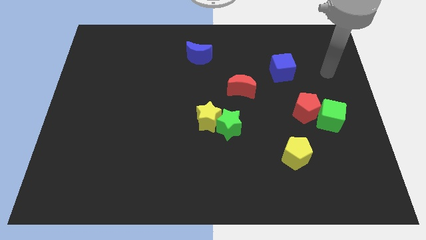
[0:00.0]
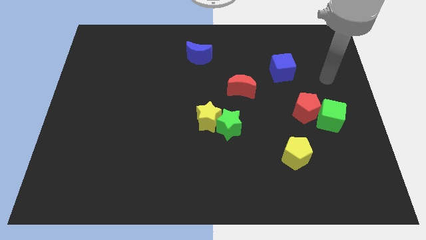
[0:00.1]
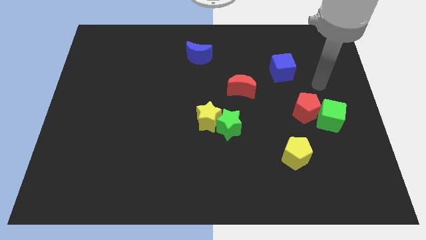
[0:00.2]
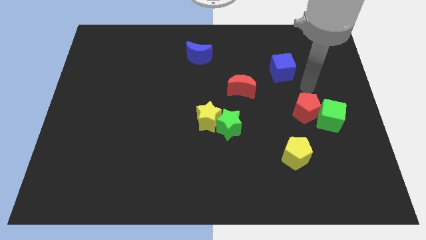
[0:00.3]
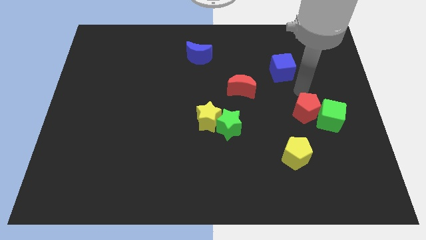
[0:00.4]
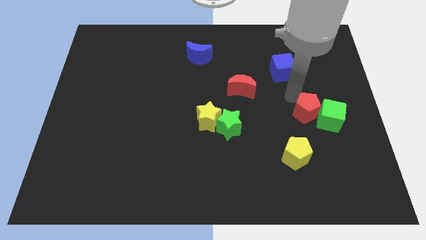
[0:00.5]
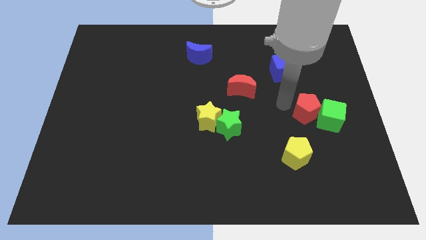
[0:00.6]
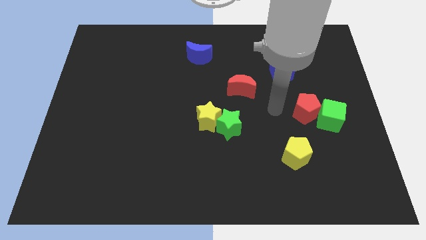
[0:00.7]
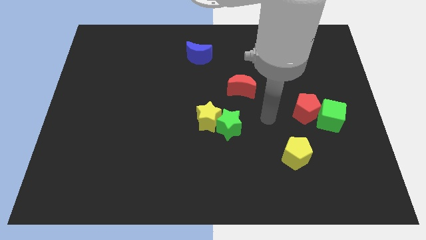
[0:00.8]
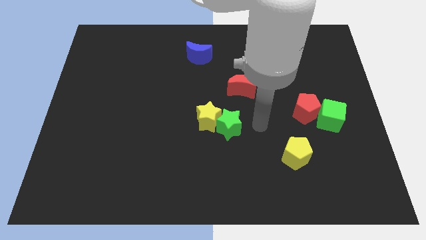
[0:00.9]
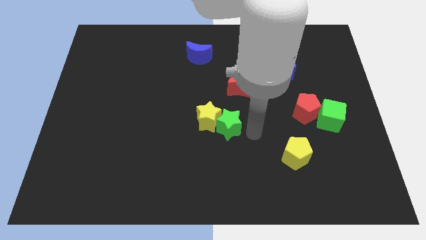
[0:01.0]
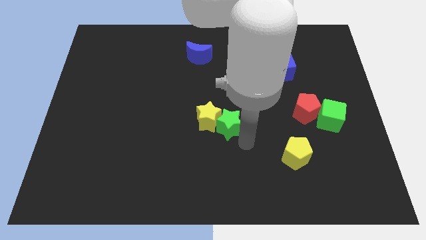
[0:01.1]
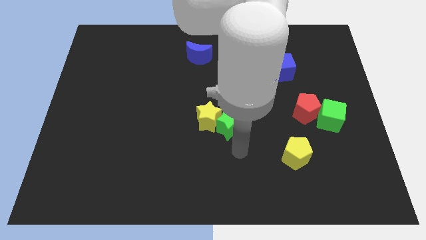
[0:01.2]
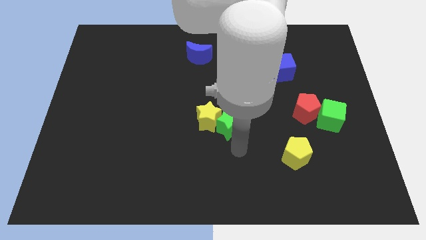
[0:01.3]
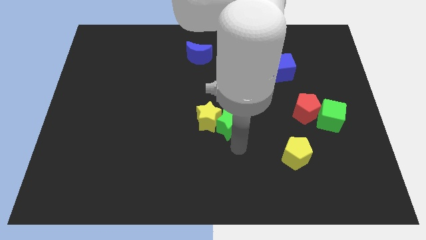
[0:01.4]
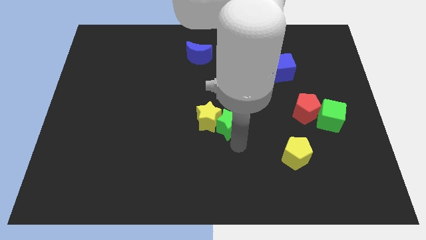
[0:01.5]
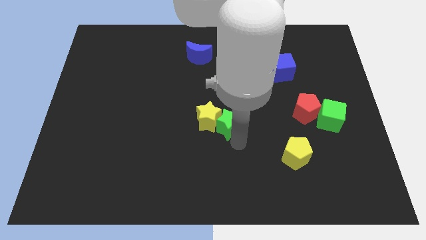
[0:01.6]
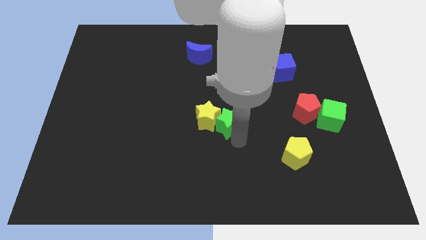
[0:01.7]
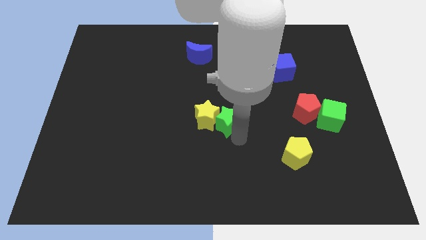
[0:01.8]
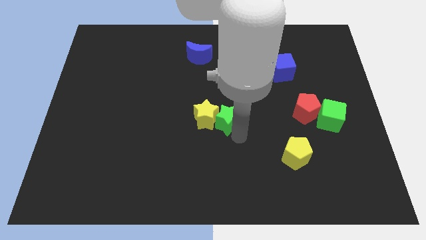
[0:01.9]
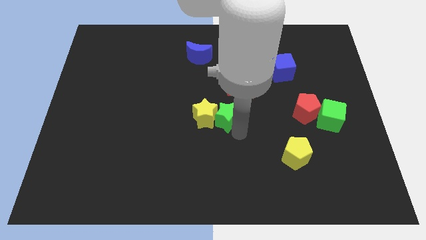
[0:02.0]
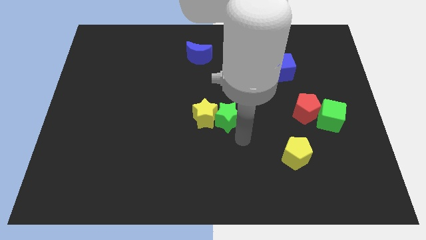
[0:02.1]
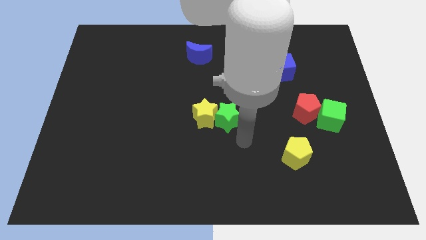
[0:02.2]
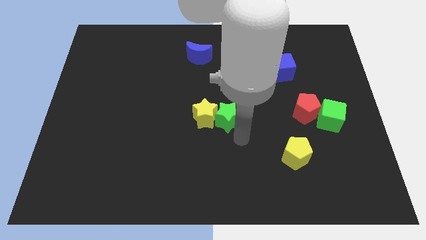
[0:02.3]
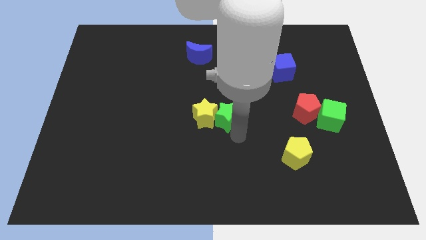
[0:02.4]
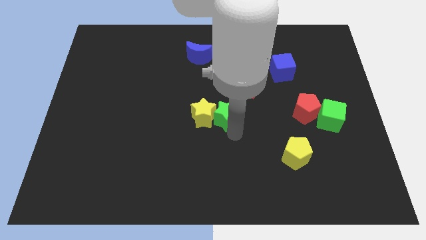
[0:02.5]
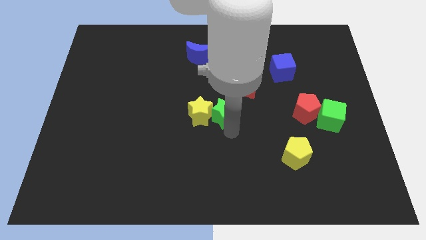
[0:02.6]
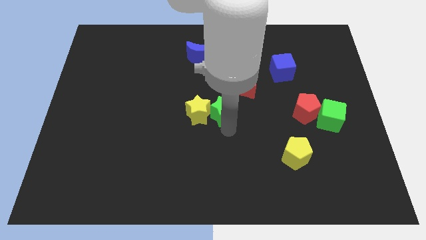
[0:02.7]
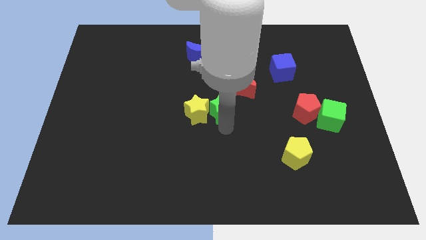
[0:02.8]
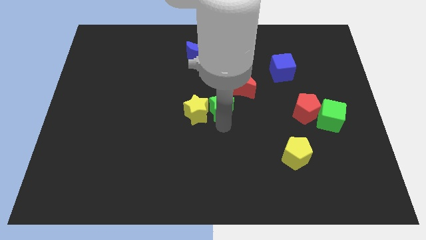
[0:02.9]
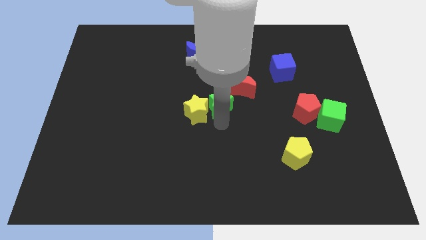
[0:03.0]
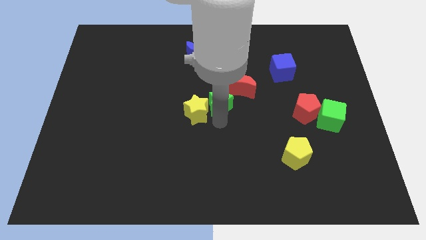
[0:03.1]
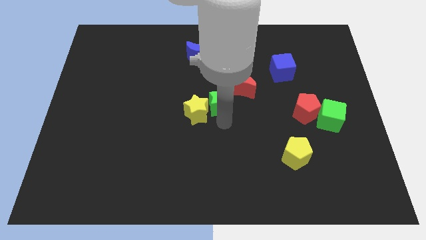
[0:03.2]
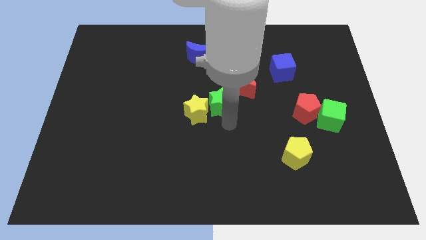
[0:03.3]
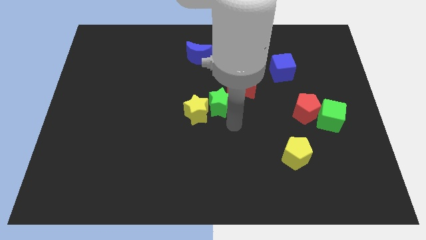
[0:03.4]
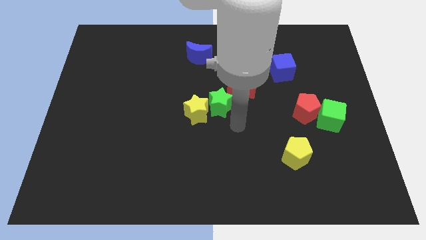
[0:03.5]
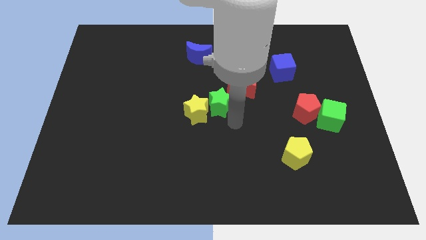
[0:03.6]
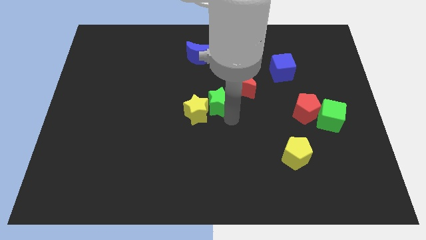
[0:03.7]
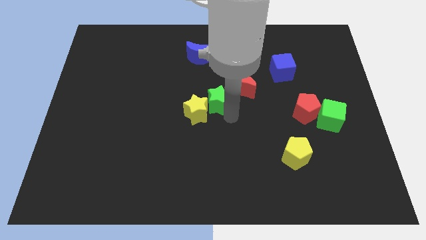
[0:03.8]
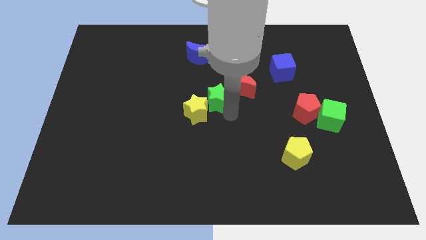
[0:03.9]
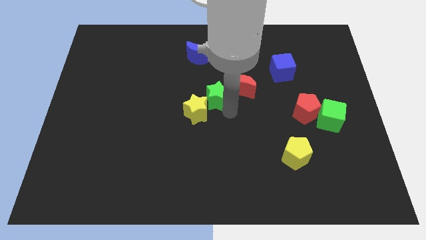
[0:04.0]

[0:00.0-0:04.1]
slightly push the green star diagonally upwards and to the left

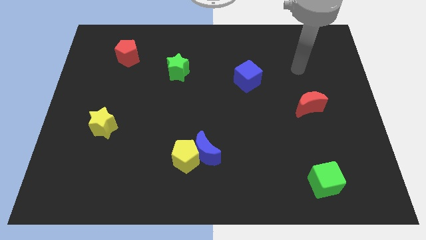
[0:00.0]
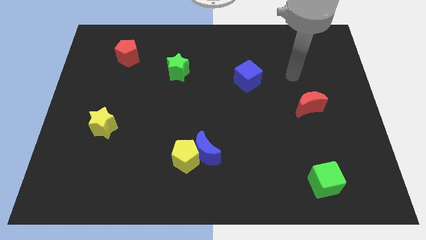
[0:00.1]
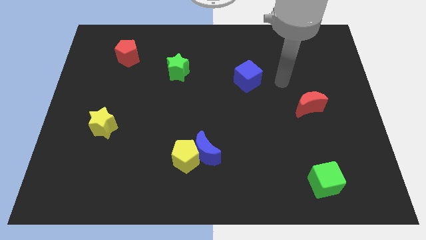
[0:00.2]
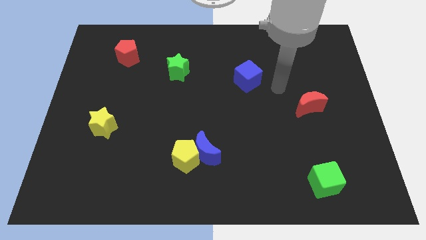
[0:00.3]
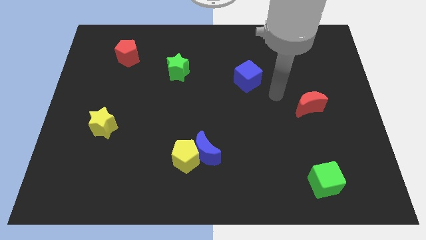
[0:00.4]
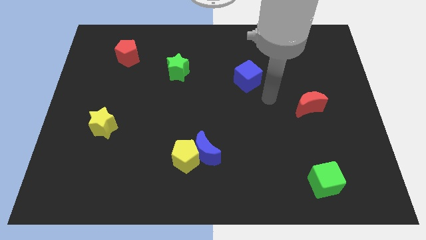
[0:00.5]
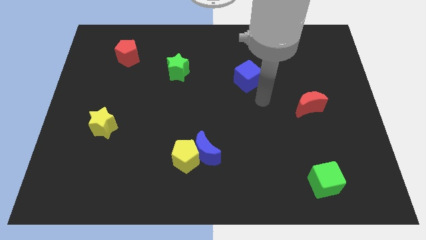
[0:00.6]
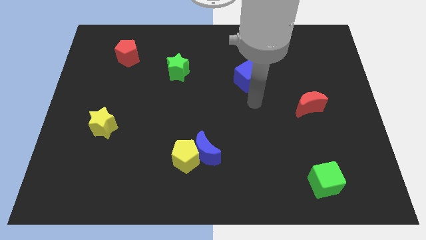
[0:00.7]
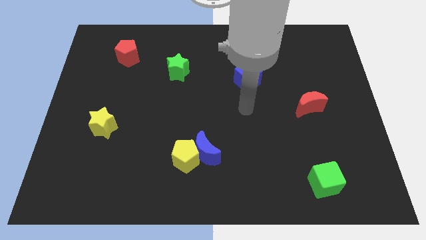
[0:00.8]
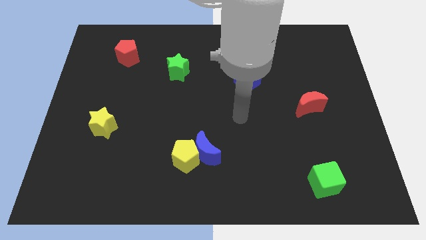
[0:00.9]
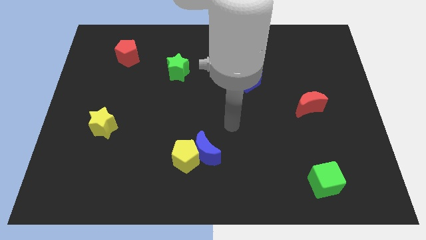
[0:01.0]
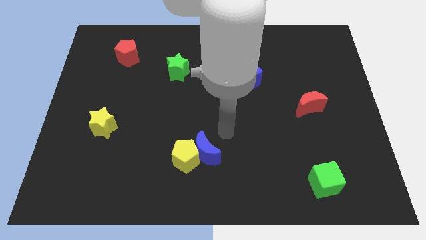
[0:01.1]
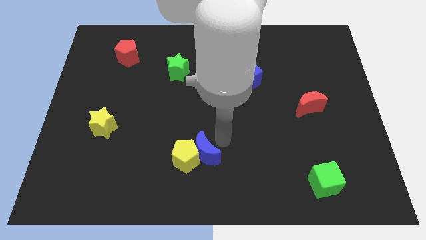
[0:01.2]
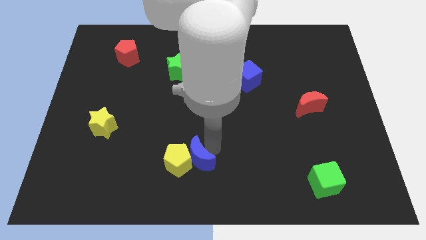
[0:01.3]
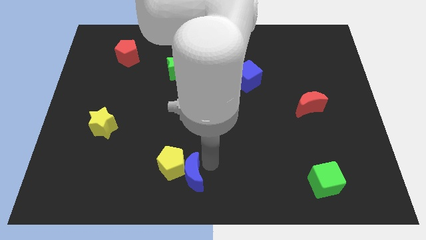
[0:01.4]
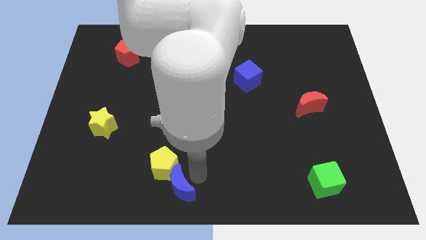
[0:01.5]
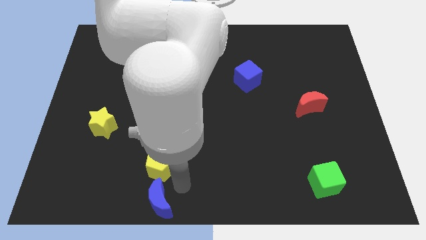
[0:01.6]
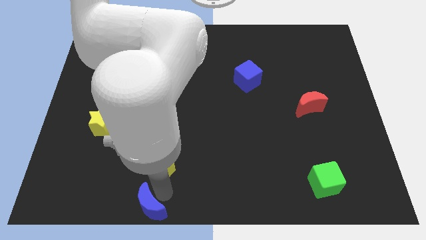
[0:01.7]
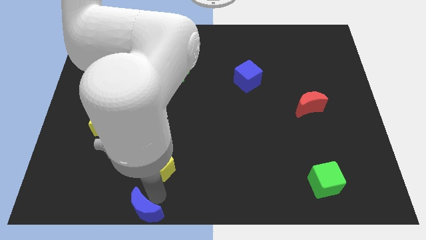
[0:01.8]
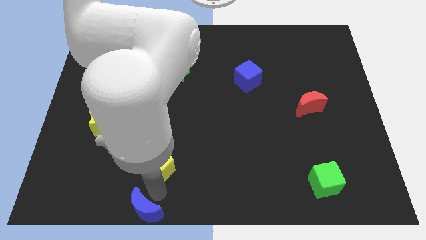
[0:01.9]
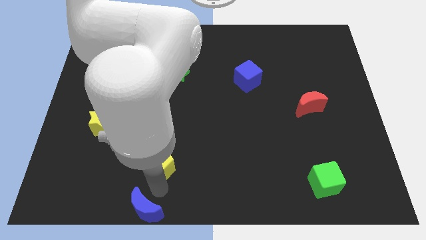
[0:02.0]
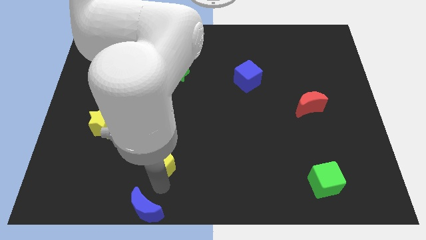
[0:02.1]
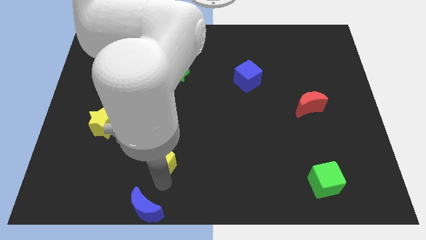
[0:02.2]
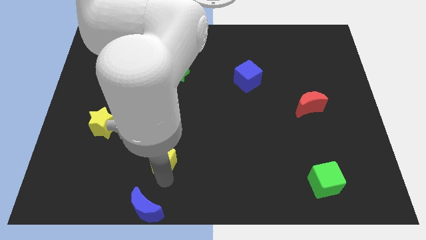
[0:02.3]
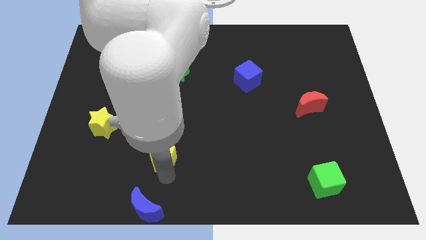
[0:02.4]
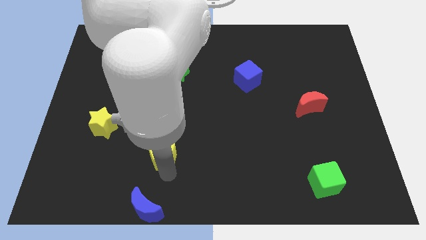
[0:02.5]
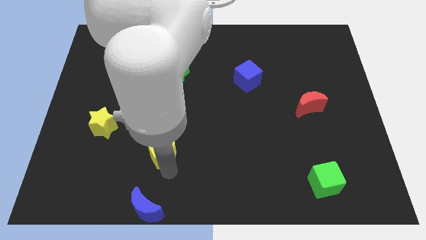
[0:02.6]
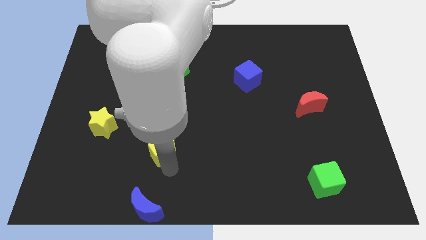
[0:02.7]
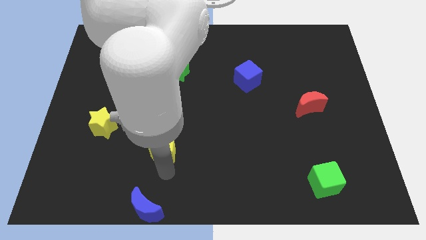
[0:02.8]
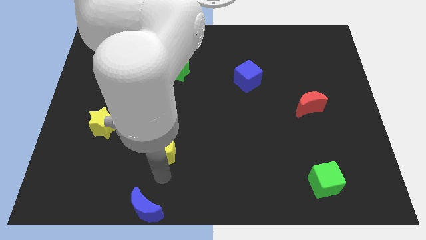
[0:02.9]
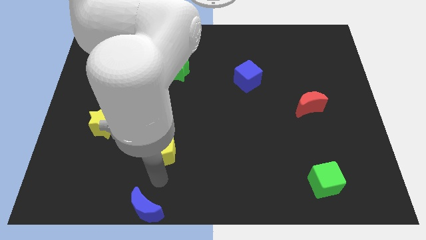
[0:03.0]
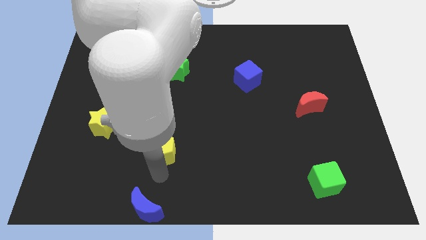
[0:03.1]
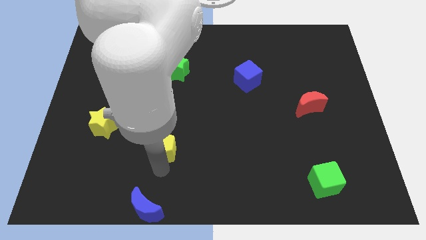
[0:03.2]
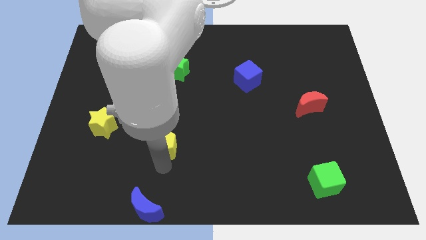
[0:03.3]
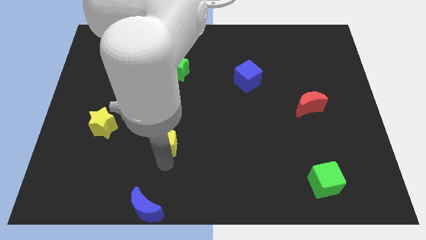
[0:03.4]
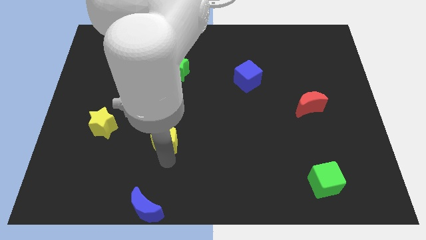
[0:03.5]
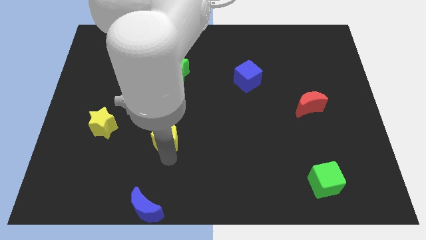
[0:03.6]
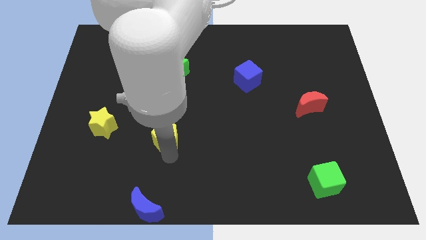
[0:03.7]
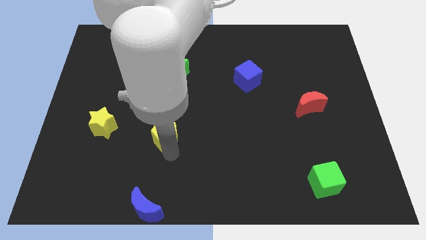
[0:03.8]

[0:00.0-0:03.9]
move the yellow pentagon upwards and to the left a little
